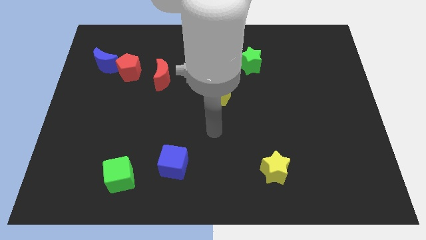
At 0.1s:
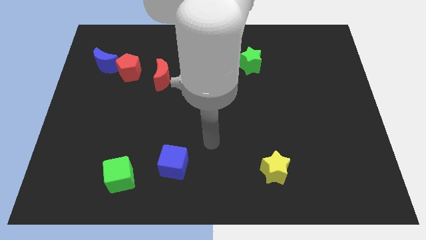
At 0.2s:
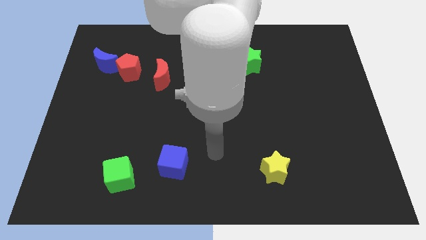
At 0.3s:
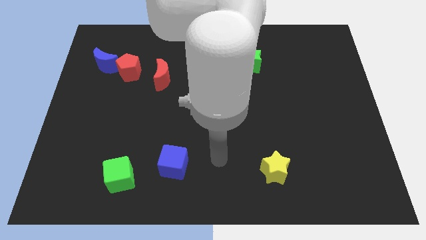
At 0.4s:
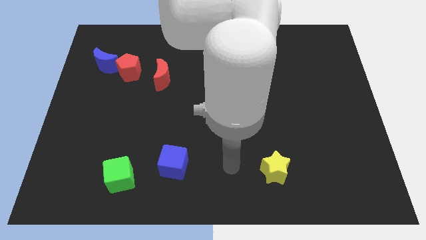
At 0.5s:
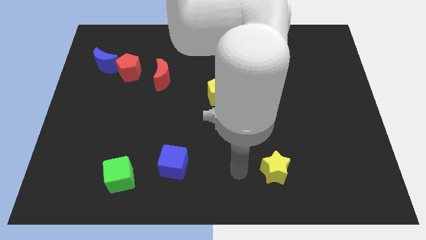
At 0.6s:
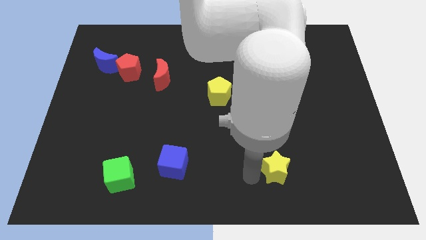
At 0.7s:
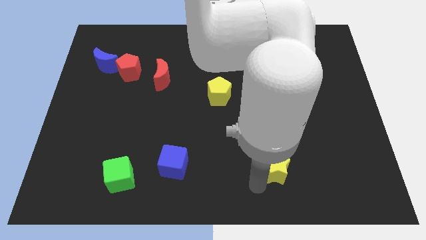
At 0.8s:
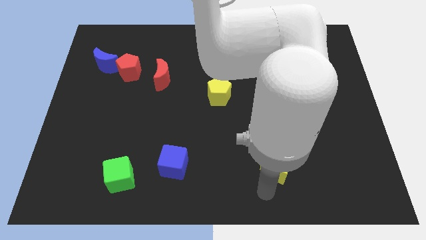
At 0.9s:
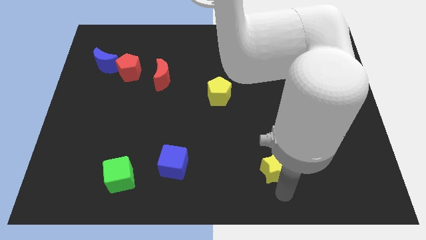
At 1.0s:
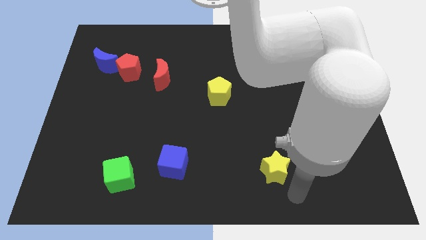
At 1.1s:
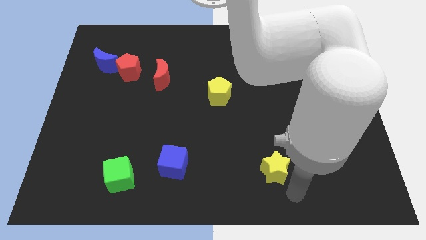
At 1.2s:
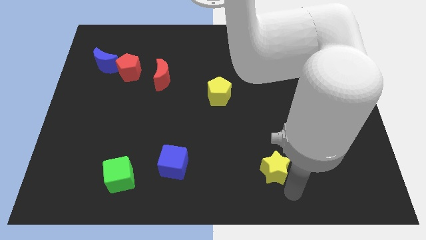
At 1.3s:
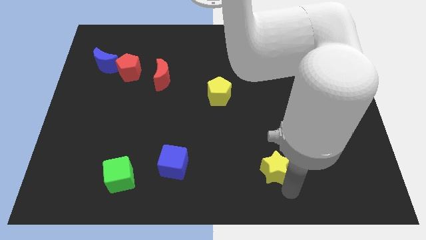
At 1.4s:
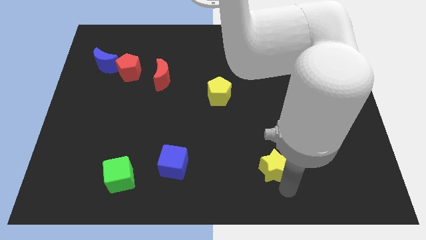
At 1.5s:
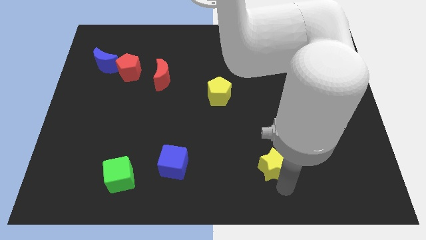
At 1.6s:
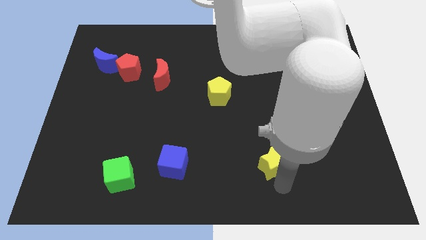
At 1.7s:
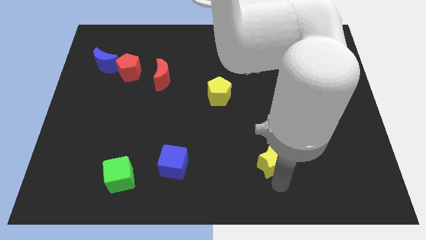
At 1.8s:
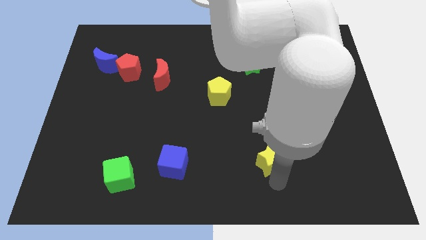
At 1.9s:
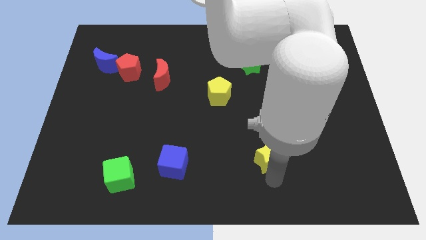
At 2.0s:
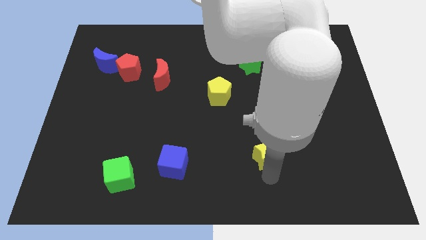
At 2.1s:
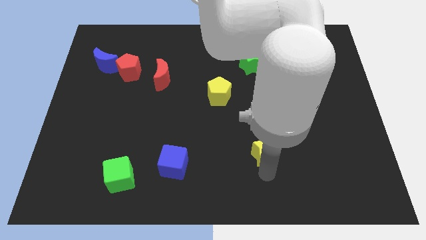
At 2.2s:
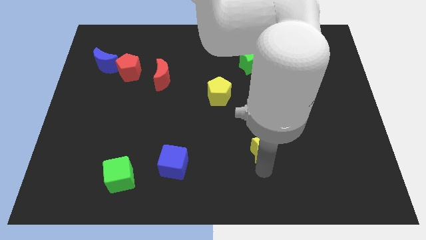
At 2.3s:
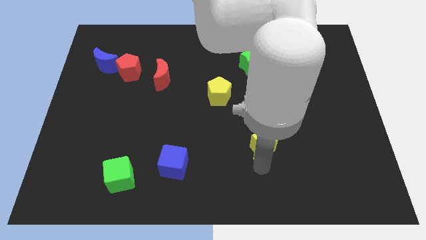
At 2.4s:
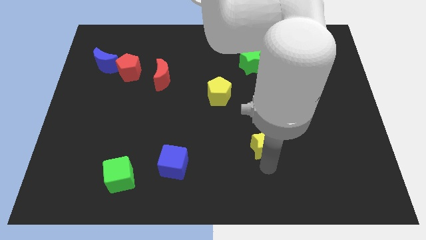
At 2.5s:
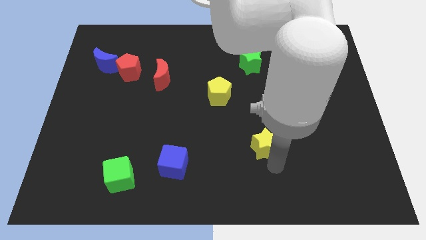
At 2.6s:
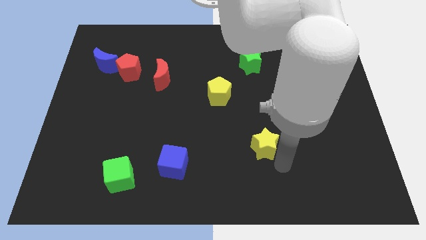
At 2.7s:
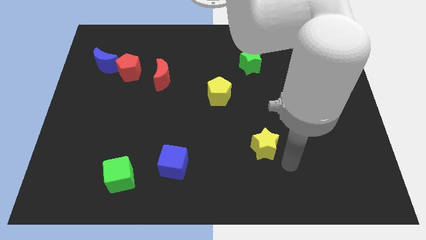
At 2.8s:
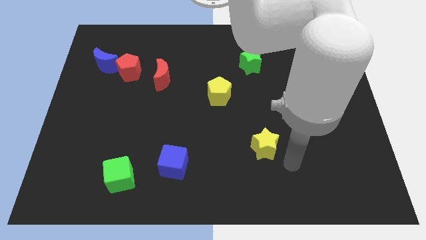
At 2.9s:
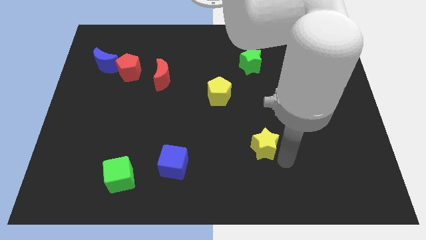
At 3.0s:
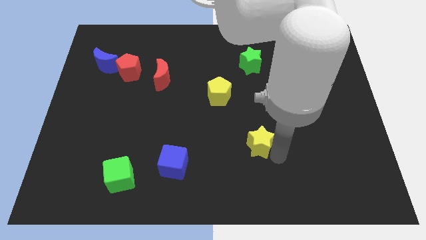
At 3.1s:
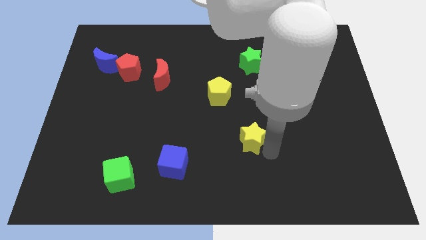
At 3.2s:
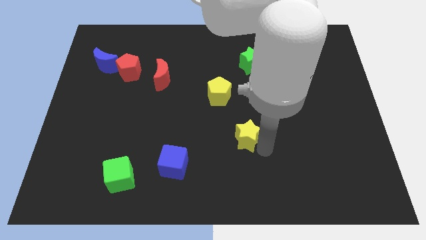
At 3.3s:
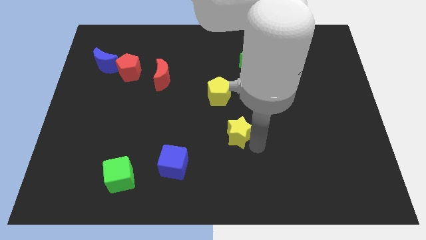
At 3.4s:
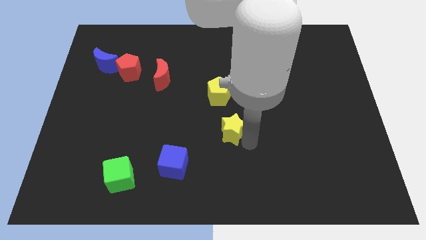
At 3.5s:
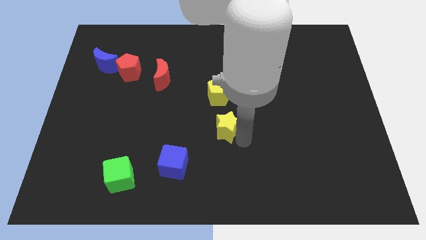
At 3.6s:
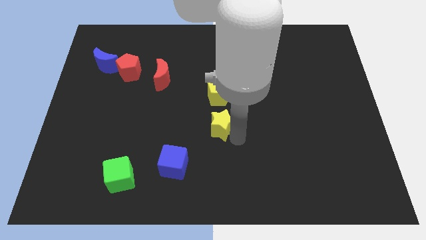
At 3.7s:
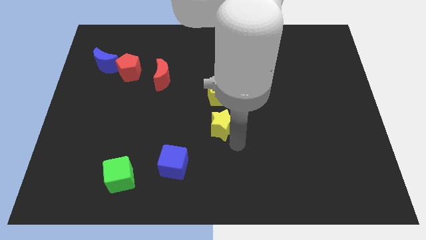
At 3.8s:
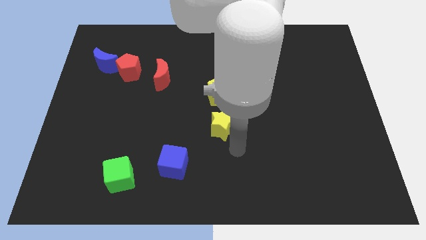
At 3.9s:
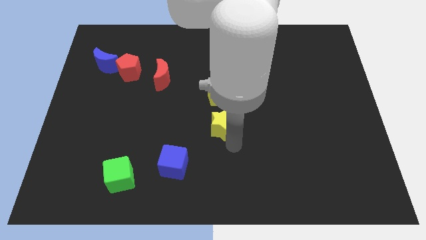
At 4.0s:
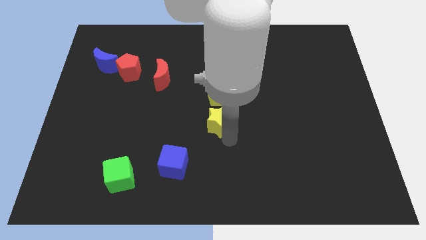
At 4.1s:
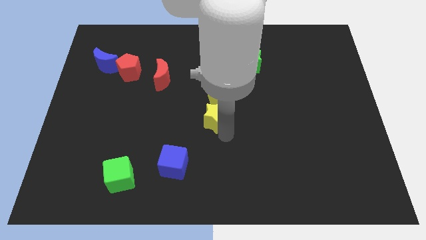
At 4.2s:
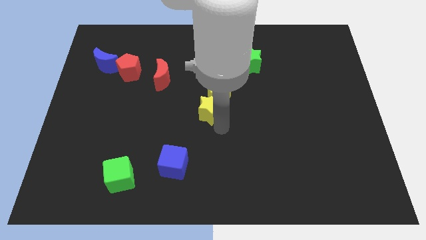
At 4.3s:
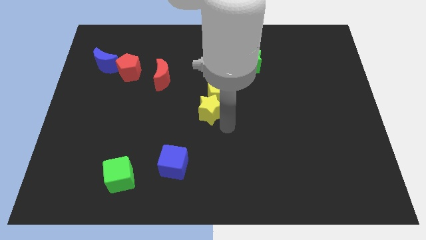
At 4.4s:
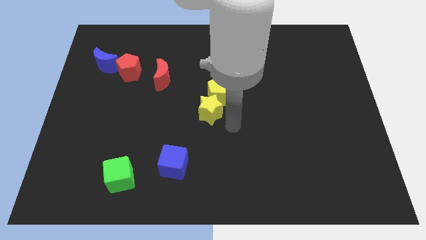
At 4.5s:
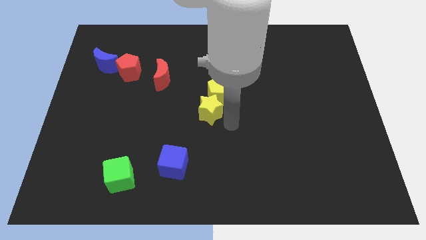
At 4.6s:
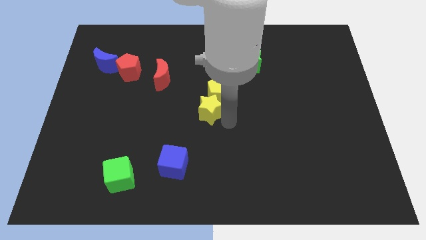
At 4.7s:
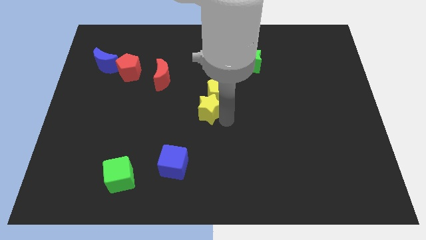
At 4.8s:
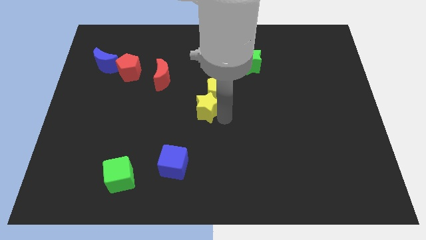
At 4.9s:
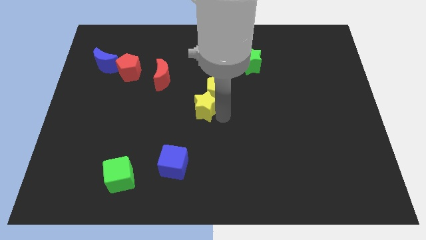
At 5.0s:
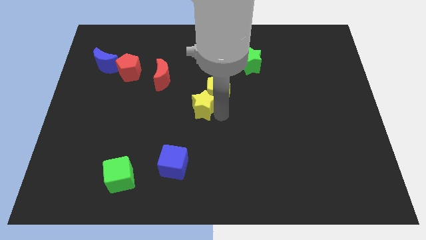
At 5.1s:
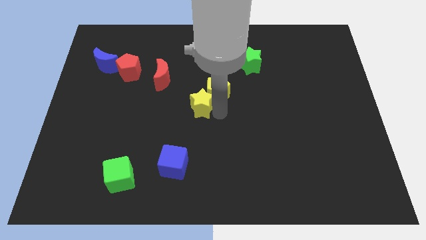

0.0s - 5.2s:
put the yellow star to the left side of the yellow pentagon

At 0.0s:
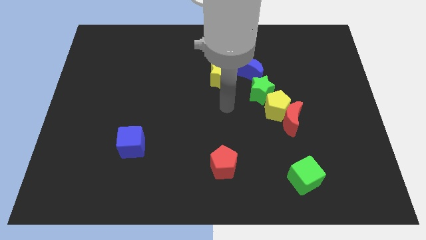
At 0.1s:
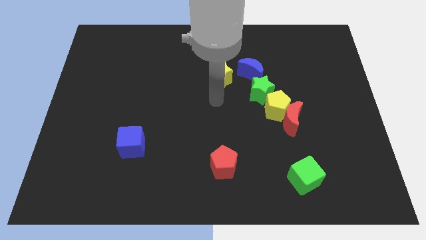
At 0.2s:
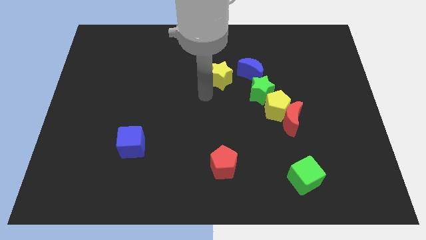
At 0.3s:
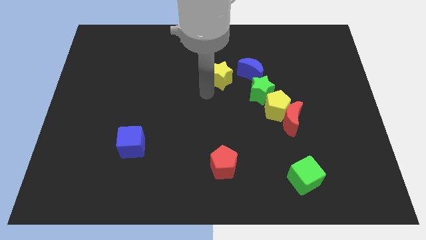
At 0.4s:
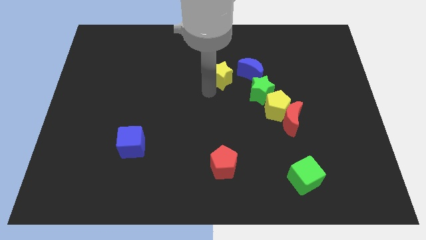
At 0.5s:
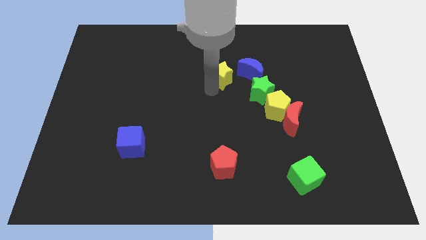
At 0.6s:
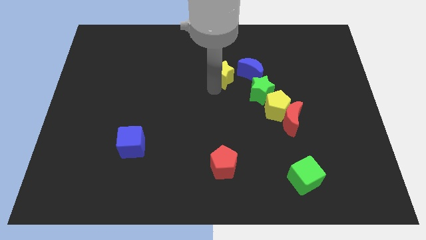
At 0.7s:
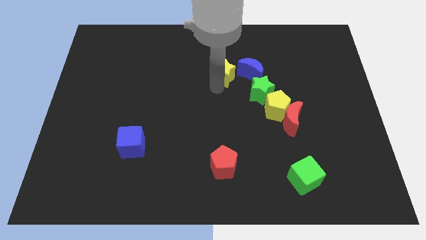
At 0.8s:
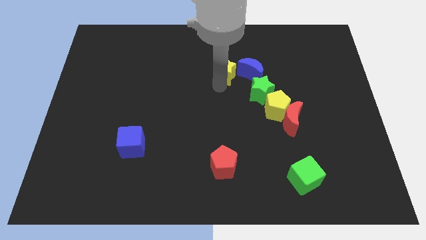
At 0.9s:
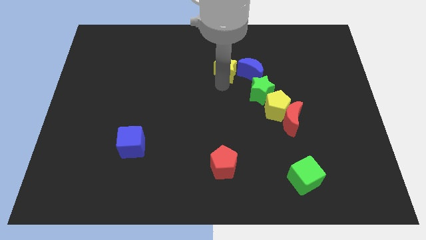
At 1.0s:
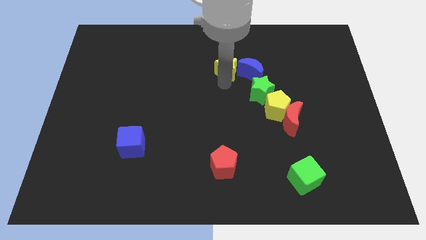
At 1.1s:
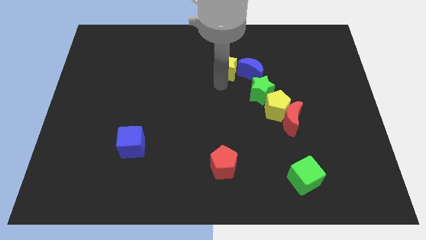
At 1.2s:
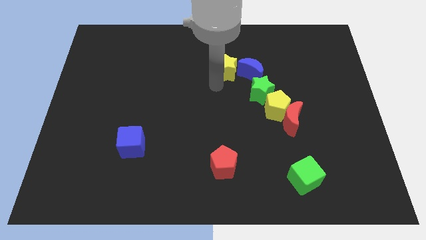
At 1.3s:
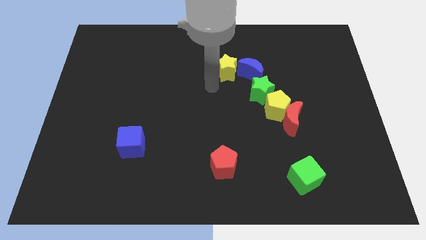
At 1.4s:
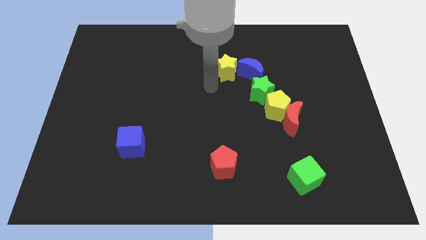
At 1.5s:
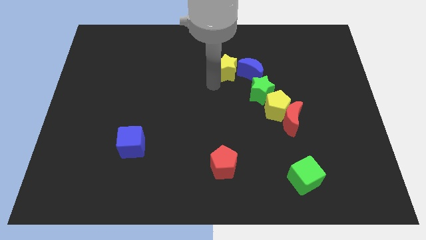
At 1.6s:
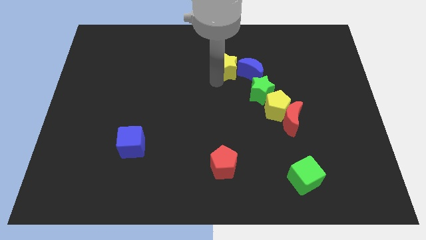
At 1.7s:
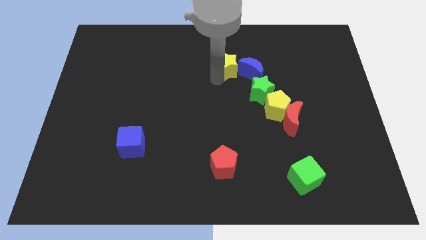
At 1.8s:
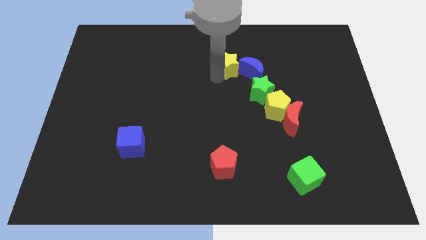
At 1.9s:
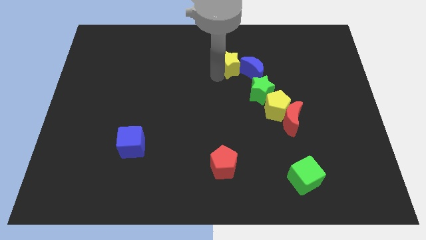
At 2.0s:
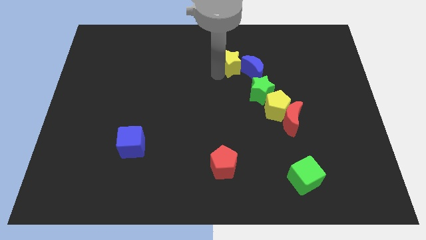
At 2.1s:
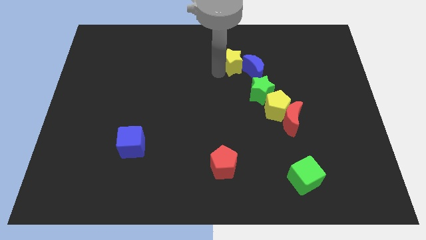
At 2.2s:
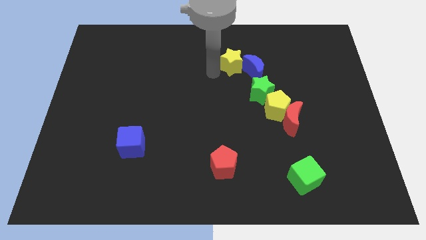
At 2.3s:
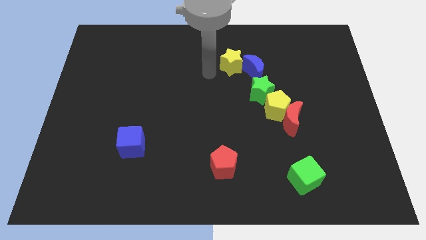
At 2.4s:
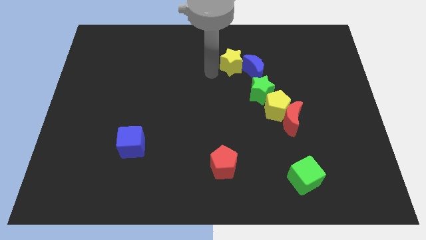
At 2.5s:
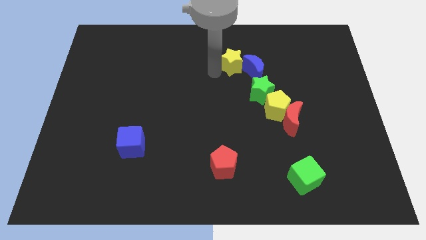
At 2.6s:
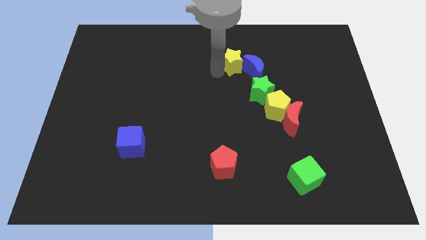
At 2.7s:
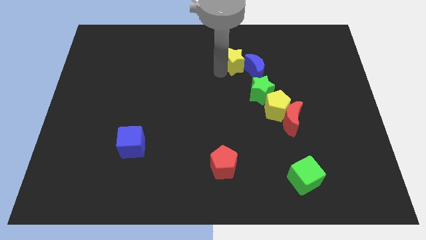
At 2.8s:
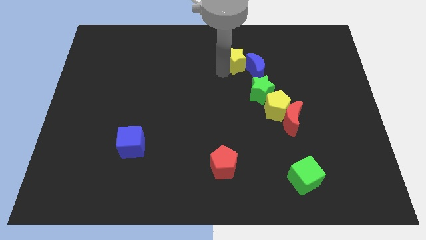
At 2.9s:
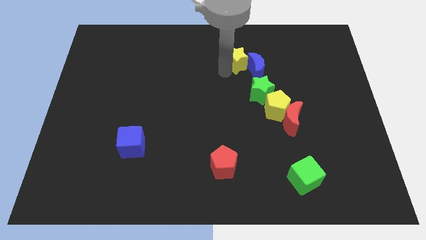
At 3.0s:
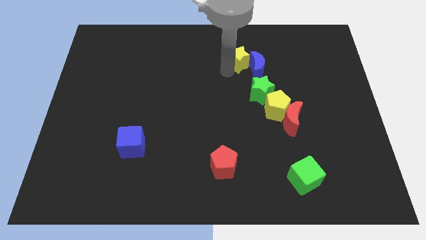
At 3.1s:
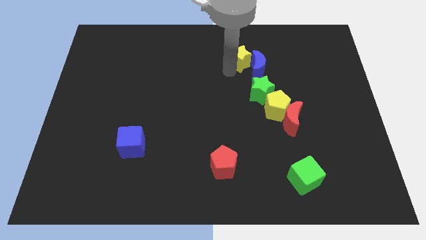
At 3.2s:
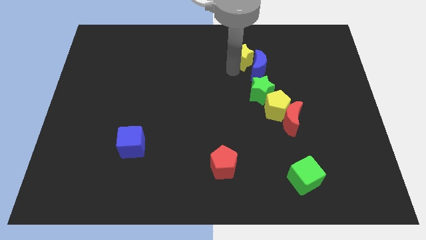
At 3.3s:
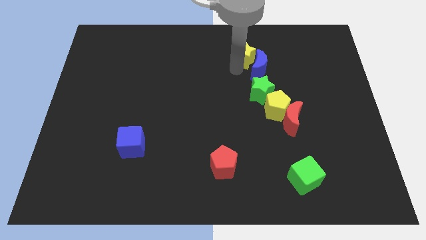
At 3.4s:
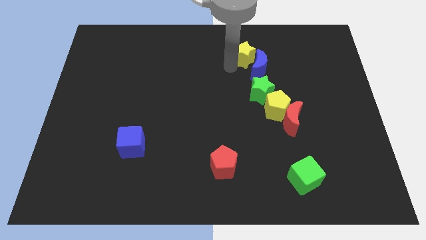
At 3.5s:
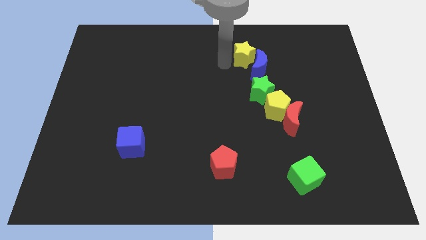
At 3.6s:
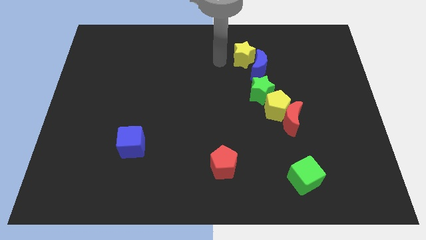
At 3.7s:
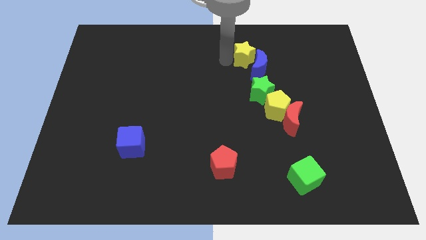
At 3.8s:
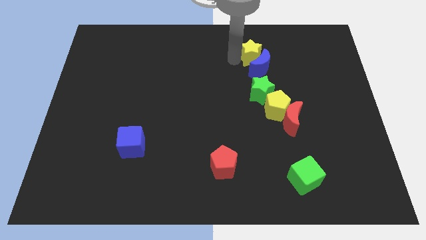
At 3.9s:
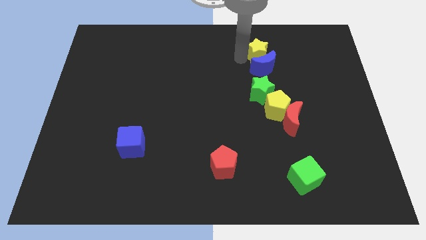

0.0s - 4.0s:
move the yellow star to the top right side of the blue moon
